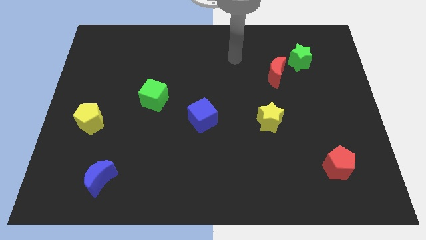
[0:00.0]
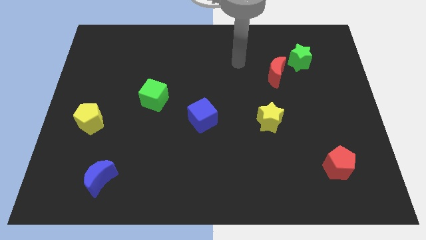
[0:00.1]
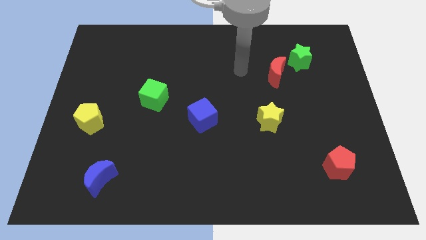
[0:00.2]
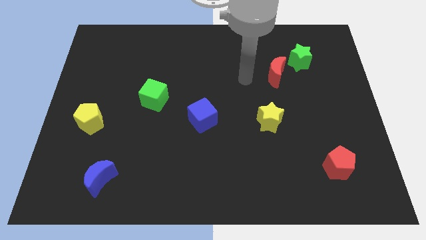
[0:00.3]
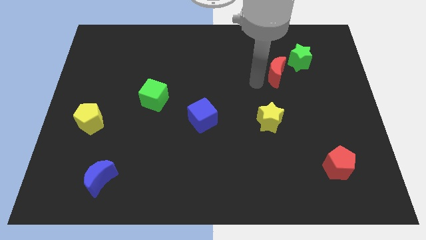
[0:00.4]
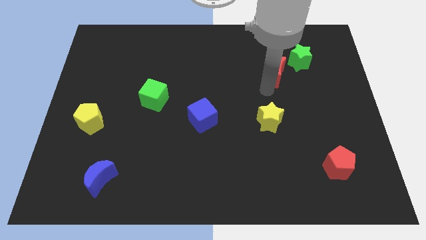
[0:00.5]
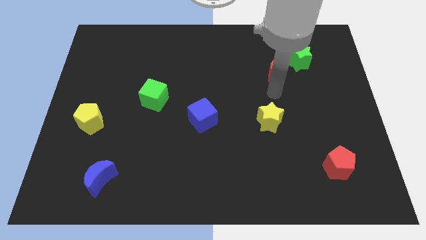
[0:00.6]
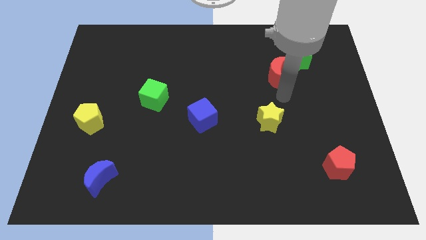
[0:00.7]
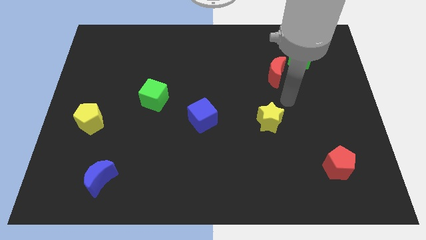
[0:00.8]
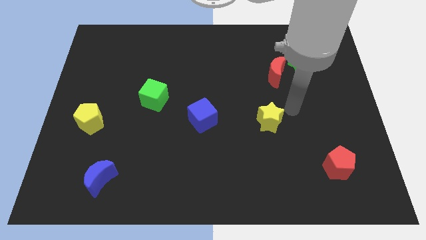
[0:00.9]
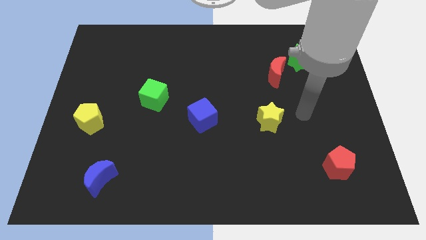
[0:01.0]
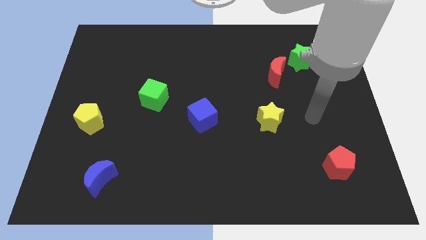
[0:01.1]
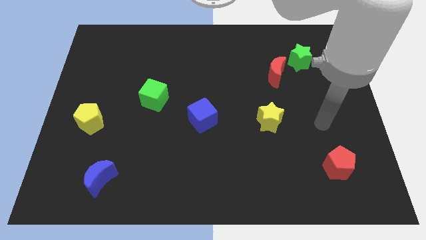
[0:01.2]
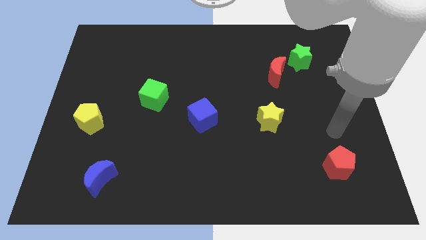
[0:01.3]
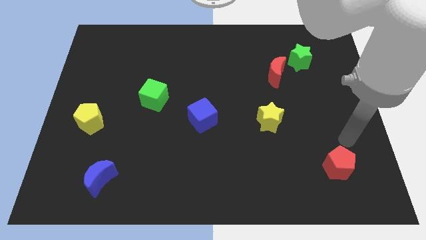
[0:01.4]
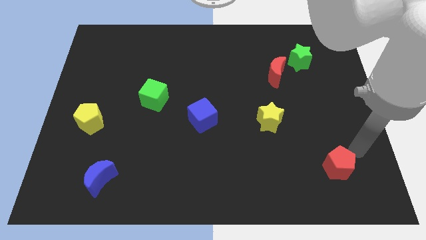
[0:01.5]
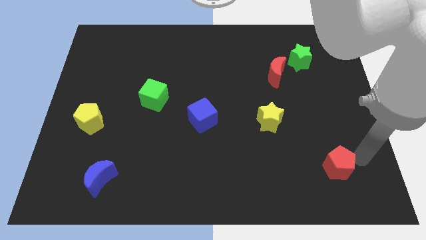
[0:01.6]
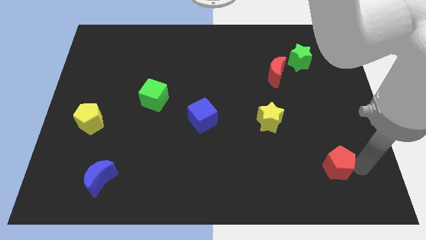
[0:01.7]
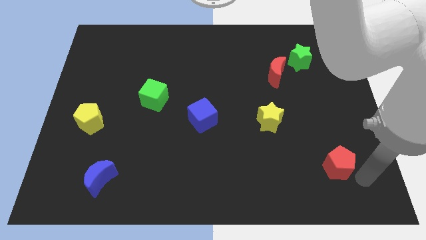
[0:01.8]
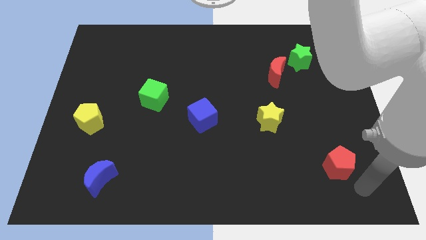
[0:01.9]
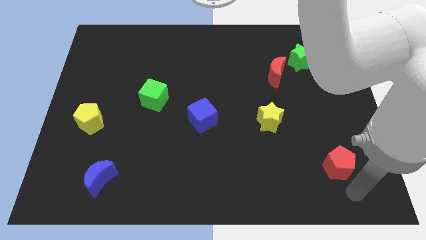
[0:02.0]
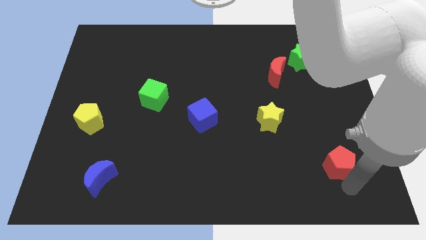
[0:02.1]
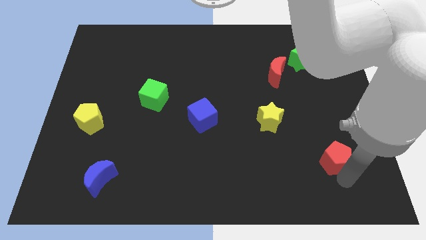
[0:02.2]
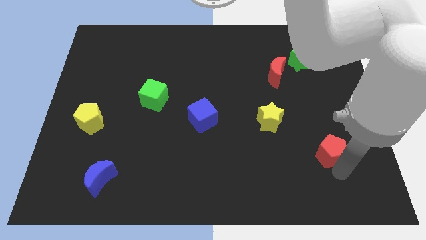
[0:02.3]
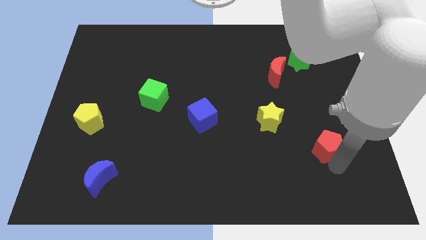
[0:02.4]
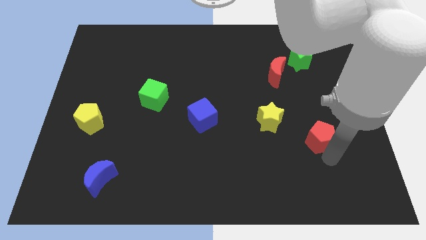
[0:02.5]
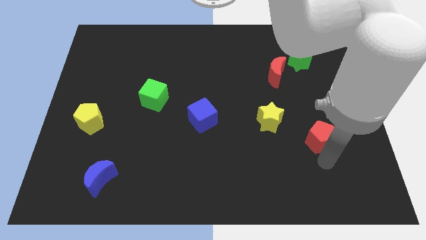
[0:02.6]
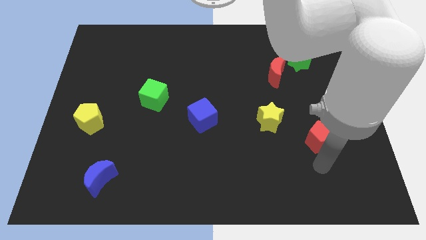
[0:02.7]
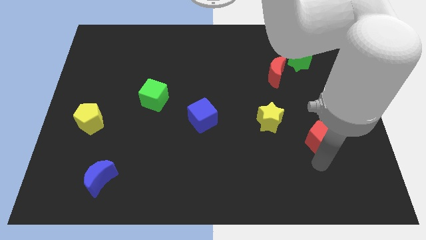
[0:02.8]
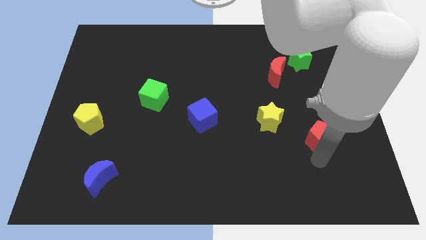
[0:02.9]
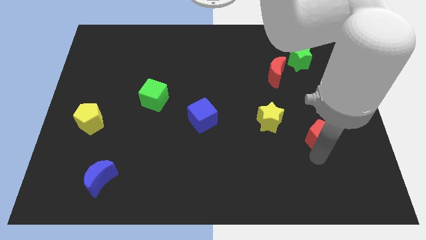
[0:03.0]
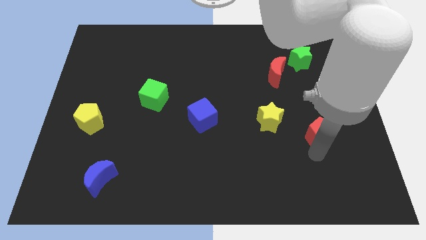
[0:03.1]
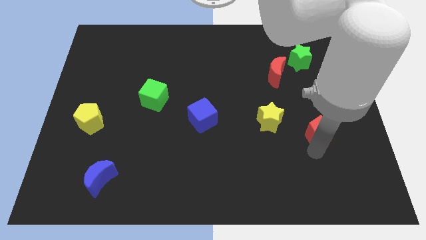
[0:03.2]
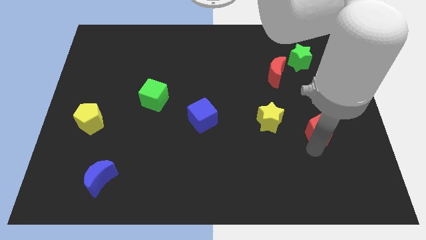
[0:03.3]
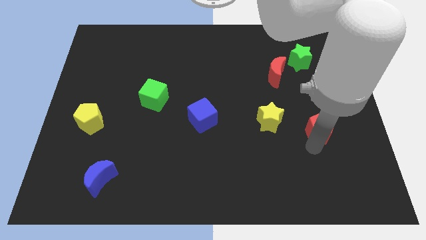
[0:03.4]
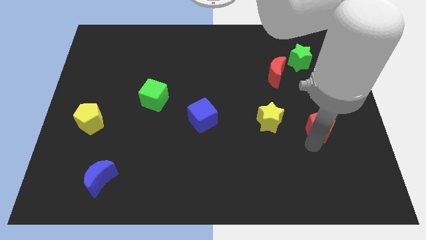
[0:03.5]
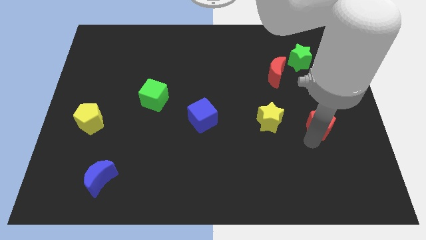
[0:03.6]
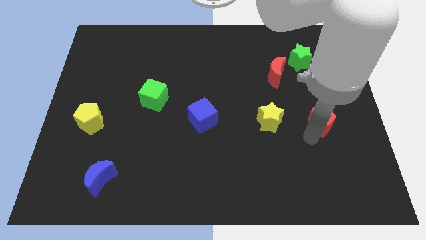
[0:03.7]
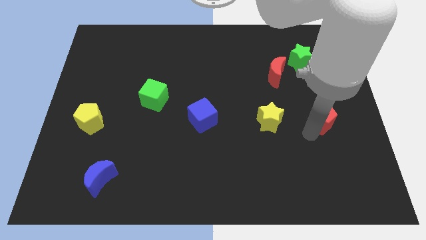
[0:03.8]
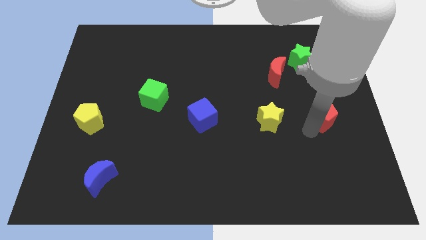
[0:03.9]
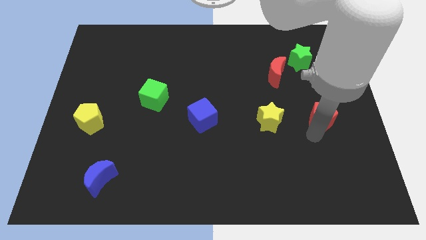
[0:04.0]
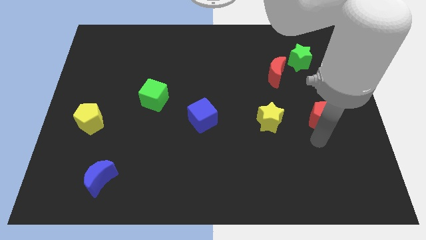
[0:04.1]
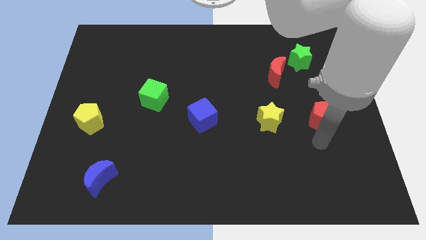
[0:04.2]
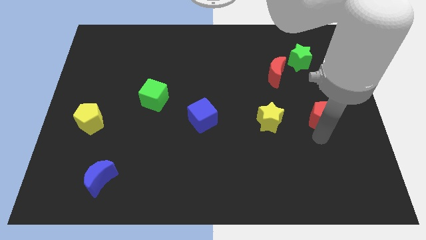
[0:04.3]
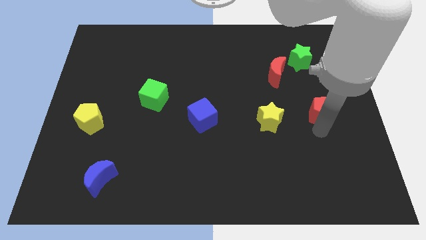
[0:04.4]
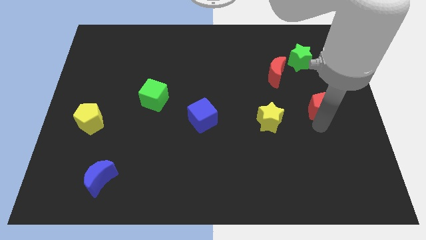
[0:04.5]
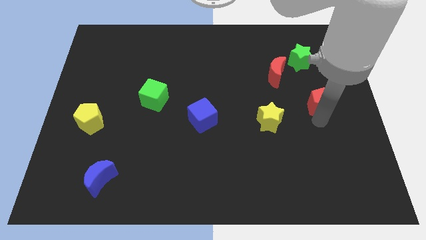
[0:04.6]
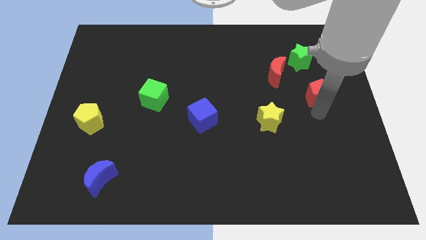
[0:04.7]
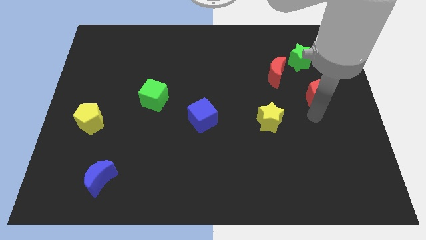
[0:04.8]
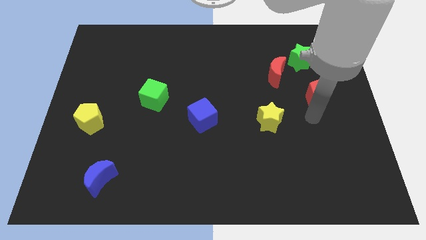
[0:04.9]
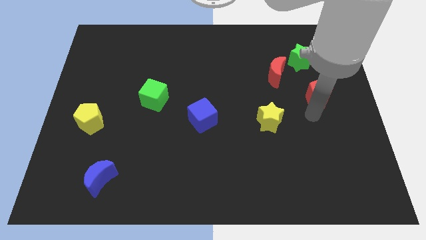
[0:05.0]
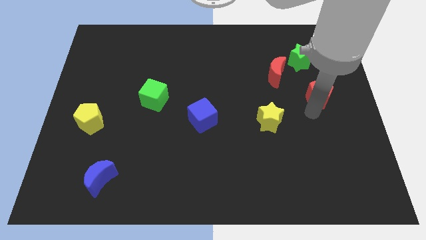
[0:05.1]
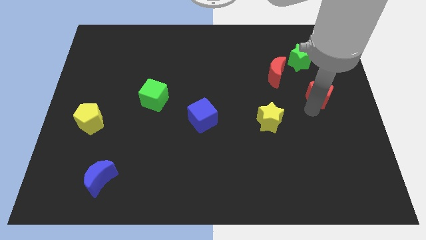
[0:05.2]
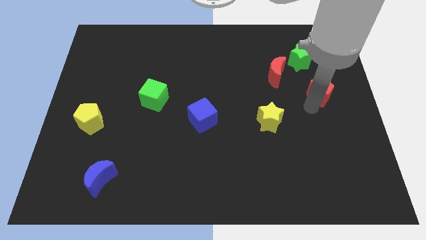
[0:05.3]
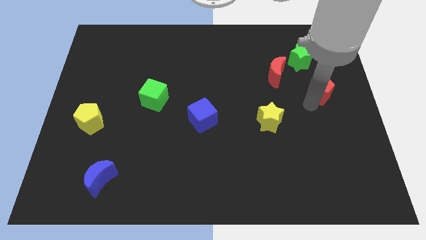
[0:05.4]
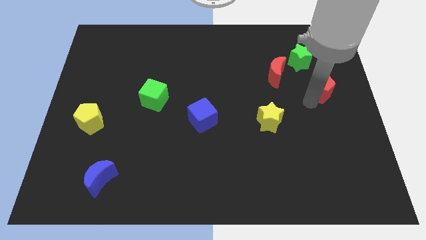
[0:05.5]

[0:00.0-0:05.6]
push the red pentagon to the bottom right of the green star

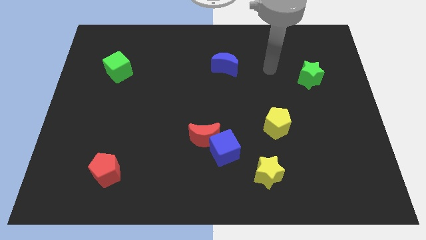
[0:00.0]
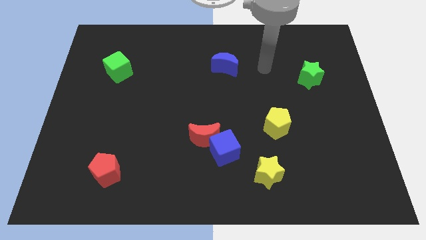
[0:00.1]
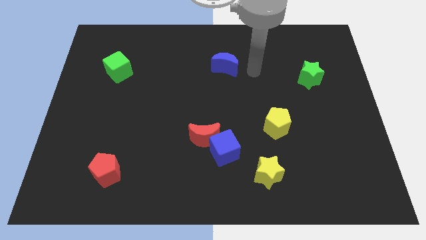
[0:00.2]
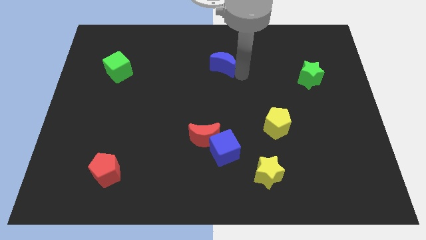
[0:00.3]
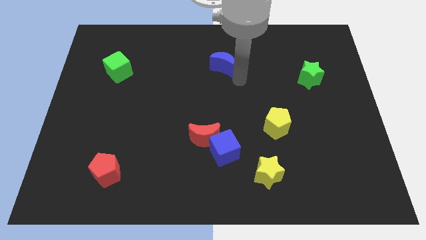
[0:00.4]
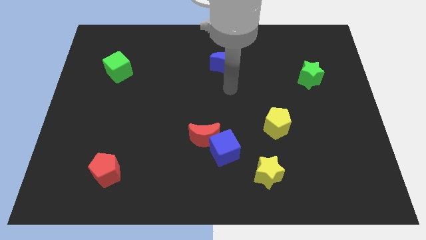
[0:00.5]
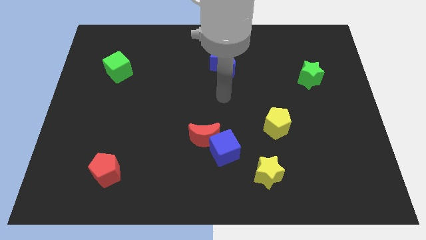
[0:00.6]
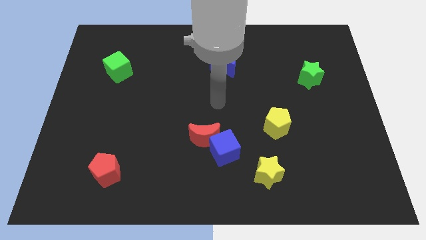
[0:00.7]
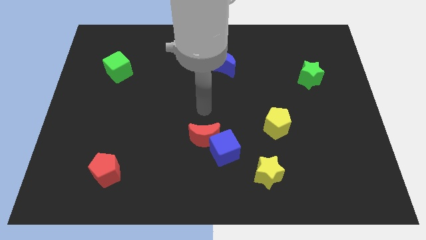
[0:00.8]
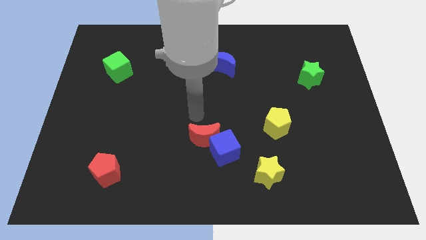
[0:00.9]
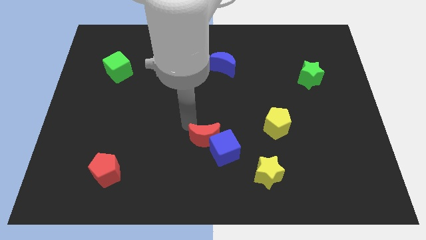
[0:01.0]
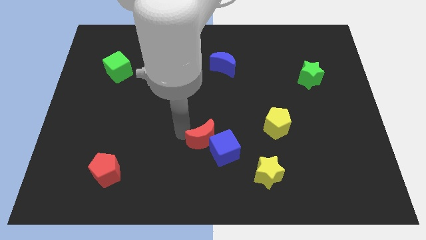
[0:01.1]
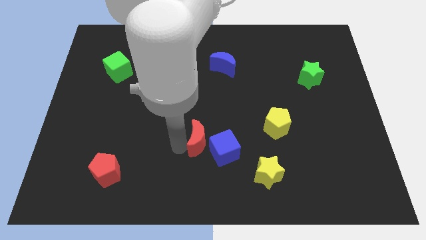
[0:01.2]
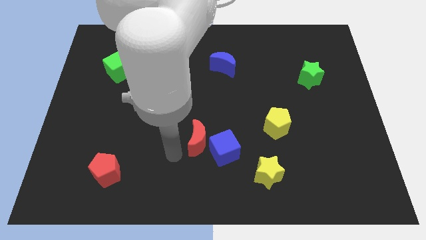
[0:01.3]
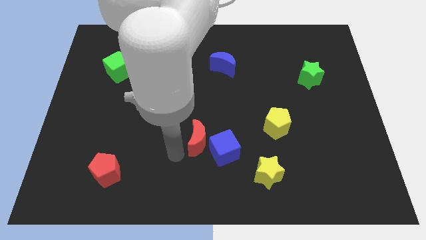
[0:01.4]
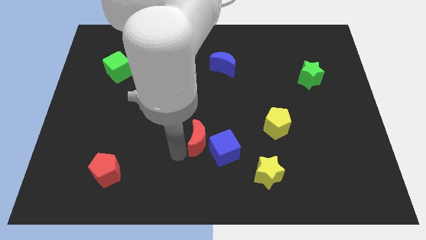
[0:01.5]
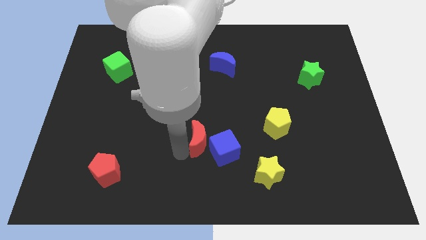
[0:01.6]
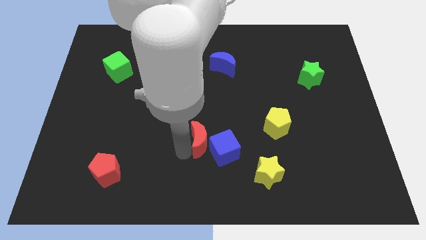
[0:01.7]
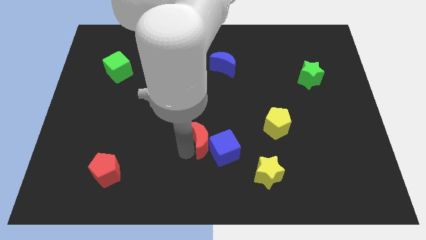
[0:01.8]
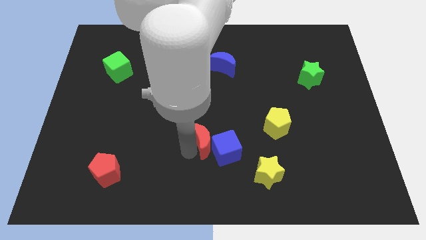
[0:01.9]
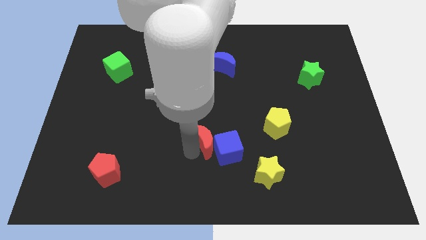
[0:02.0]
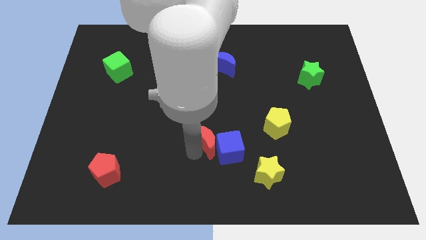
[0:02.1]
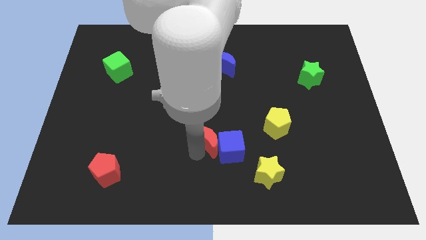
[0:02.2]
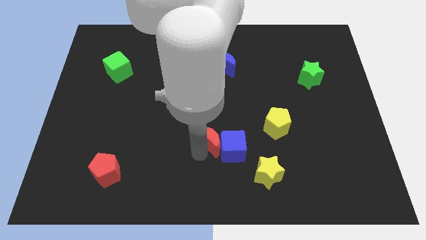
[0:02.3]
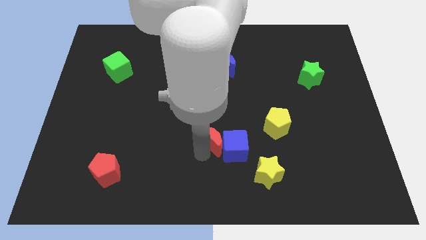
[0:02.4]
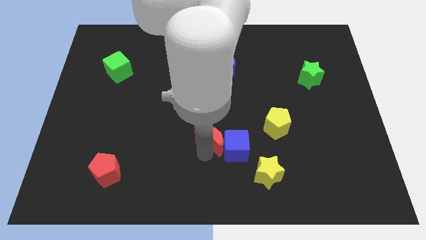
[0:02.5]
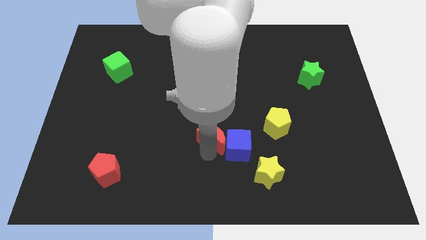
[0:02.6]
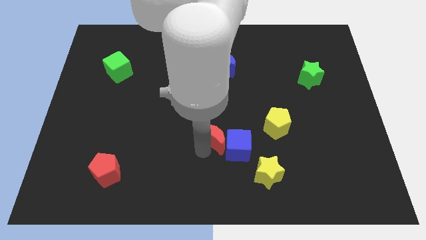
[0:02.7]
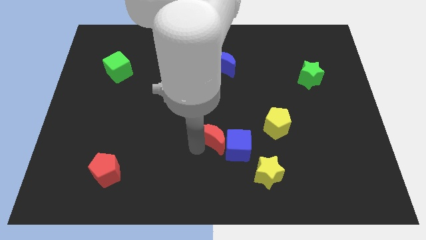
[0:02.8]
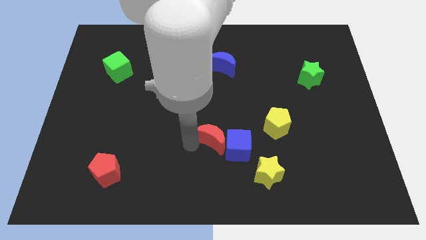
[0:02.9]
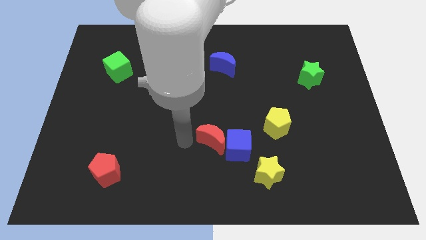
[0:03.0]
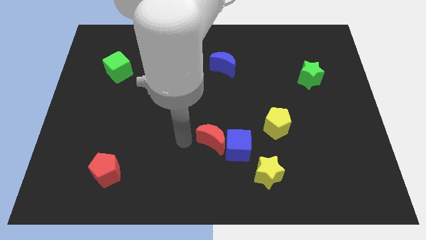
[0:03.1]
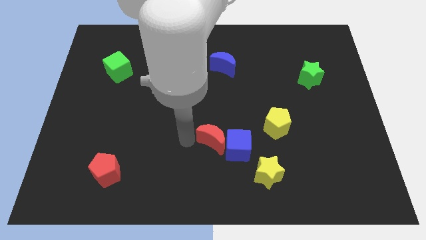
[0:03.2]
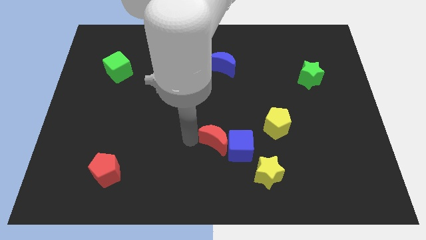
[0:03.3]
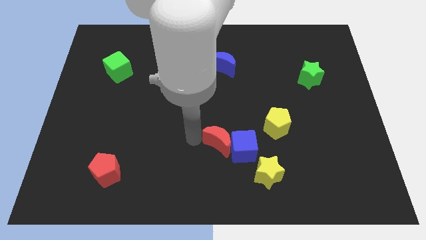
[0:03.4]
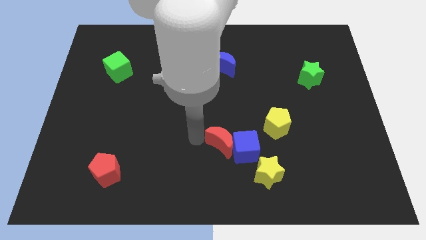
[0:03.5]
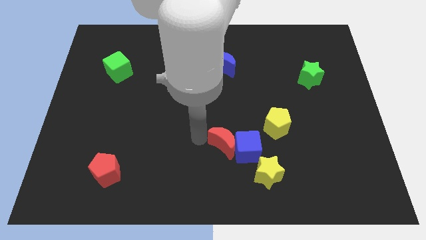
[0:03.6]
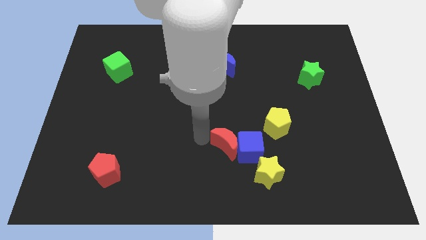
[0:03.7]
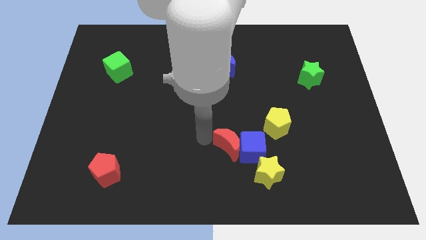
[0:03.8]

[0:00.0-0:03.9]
move the red moon to the bottom left side of the yellow pentagon
